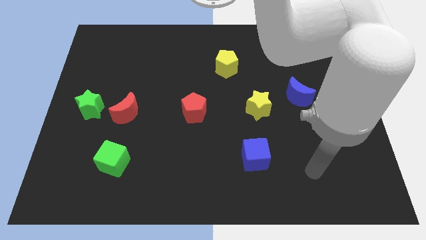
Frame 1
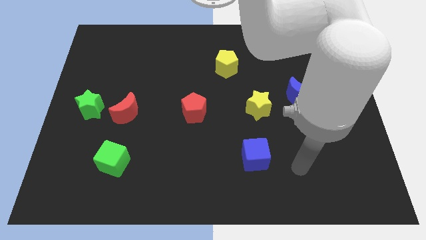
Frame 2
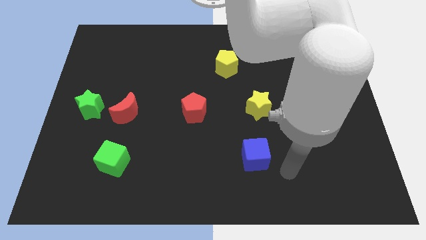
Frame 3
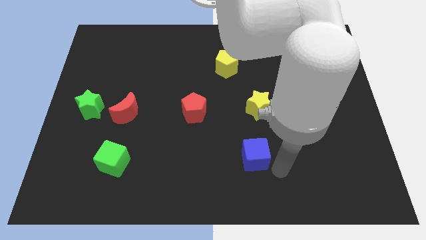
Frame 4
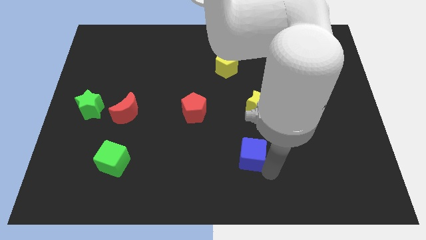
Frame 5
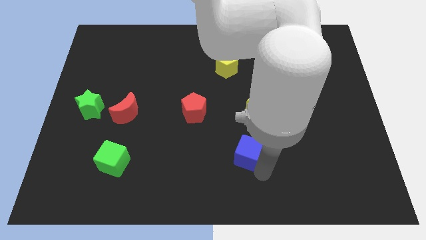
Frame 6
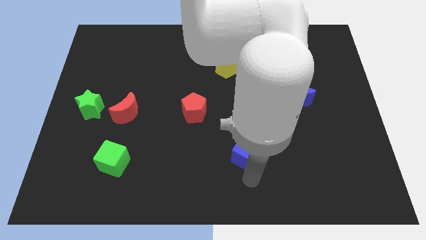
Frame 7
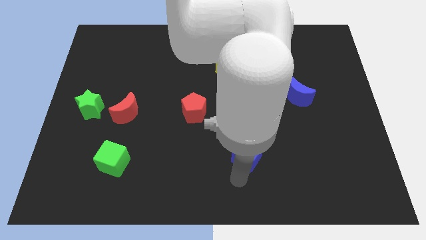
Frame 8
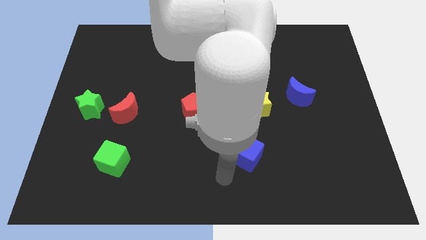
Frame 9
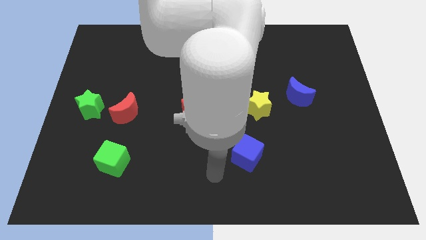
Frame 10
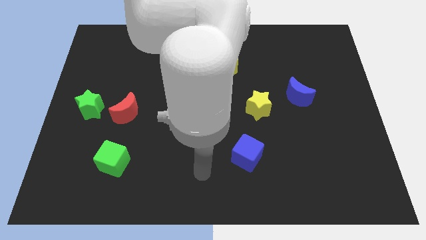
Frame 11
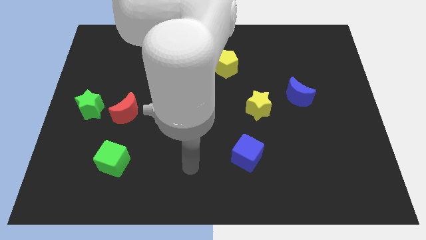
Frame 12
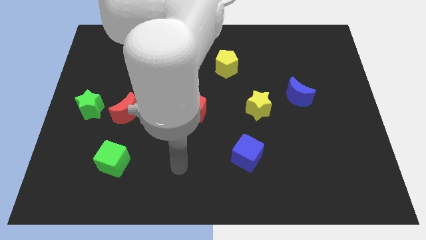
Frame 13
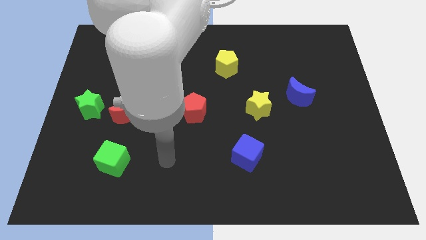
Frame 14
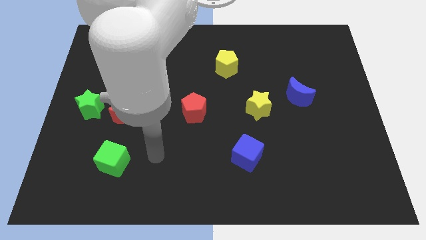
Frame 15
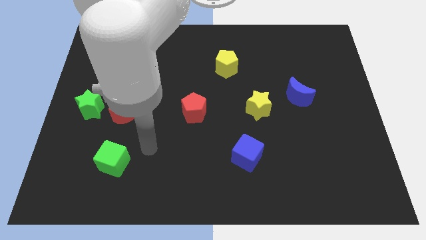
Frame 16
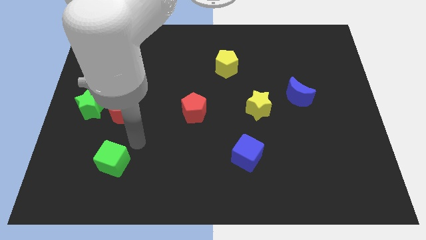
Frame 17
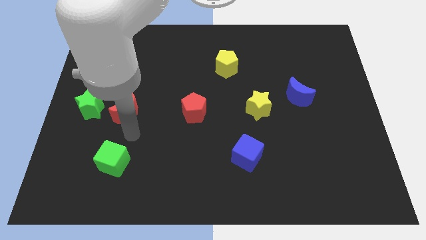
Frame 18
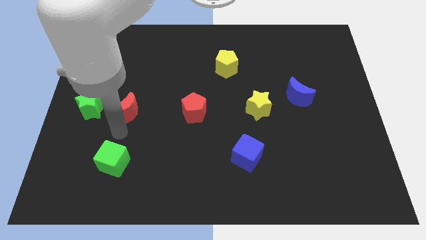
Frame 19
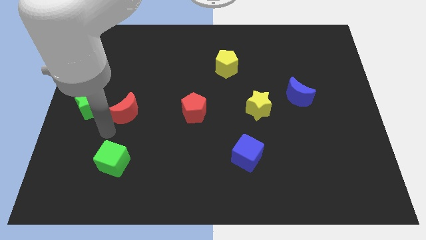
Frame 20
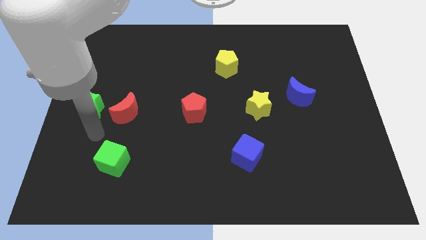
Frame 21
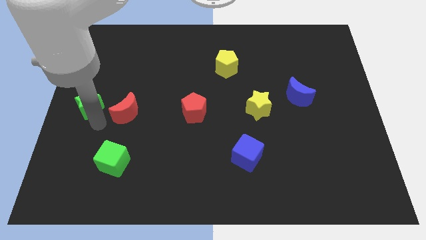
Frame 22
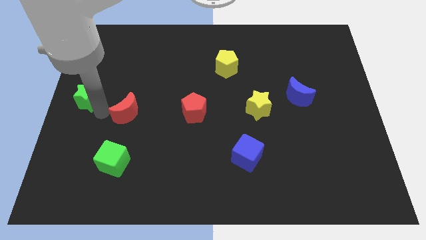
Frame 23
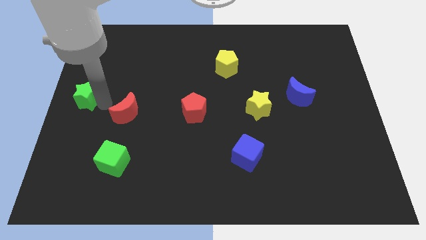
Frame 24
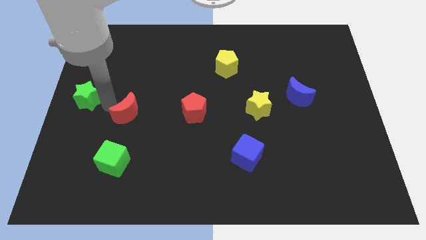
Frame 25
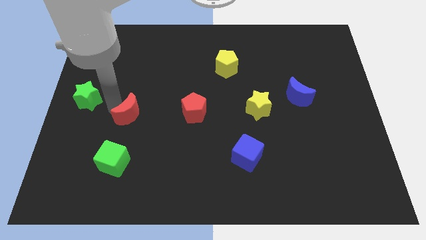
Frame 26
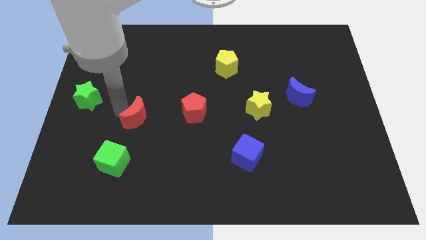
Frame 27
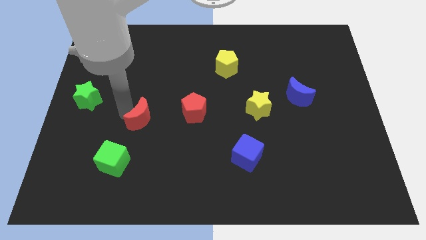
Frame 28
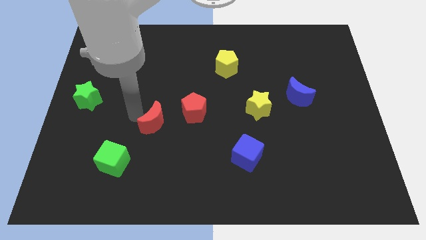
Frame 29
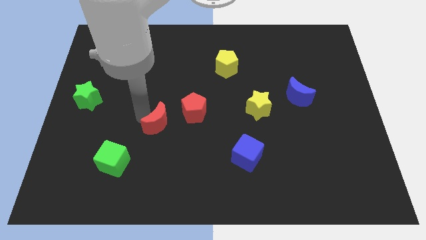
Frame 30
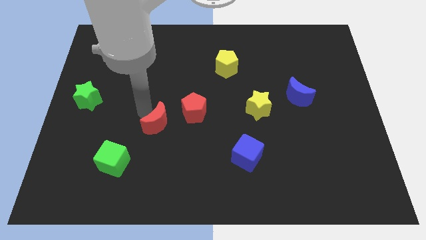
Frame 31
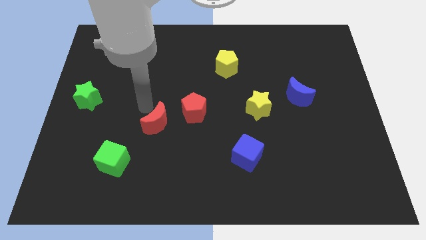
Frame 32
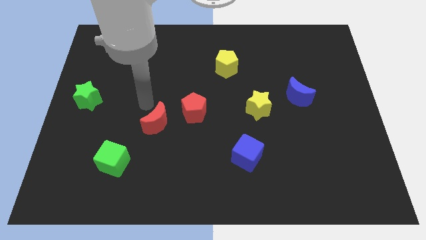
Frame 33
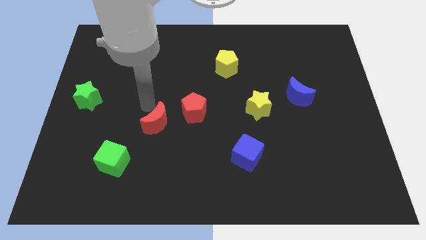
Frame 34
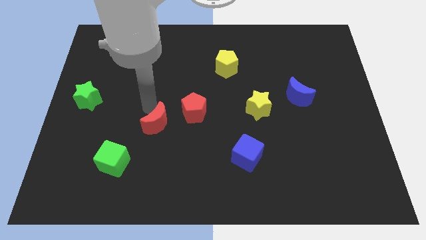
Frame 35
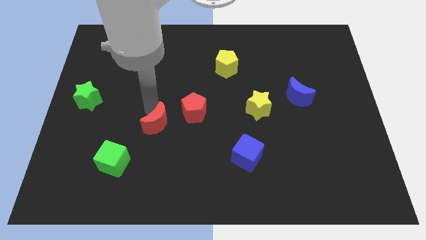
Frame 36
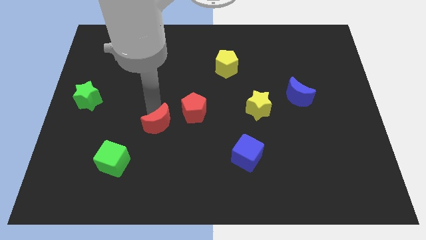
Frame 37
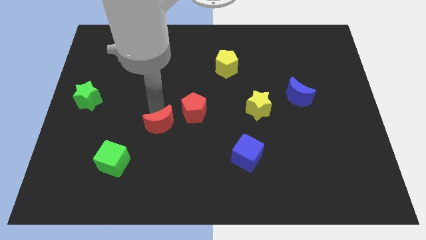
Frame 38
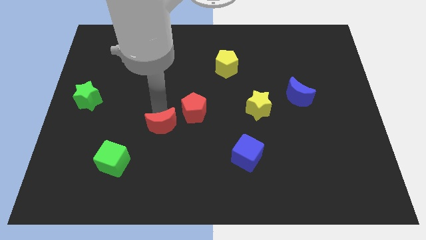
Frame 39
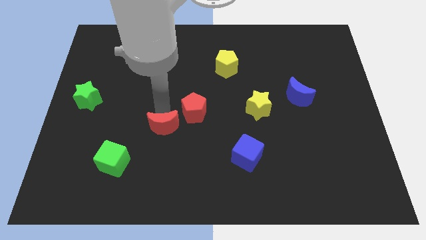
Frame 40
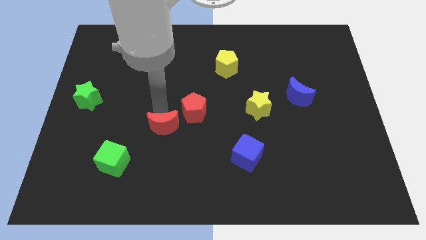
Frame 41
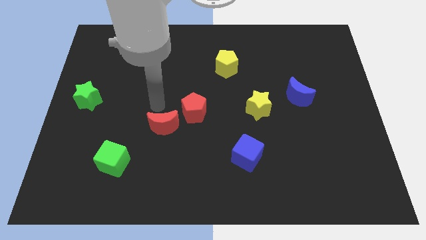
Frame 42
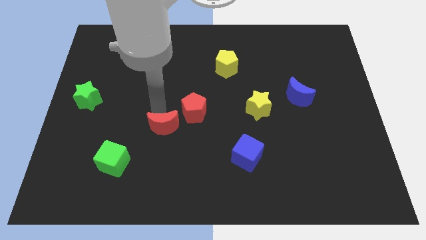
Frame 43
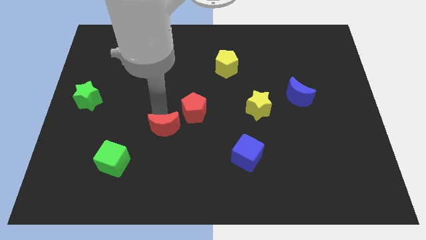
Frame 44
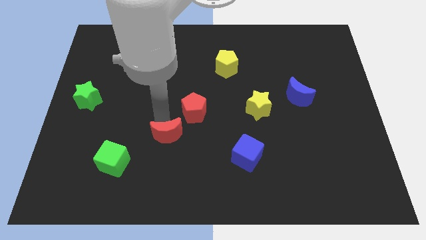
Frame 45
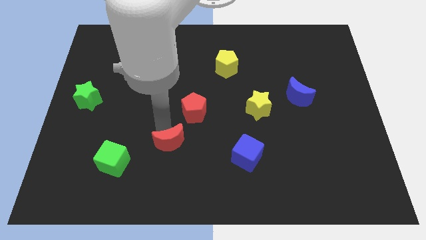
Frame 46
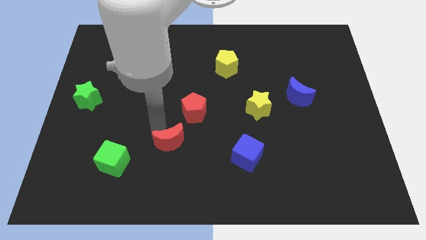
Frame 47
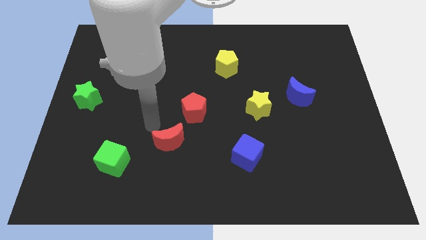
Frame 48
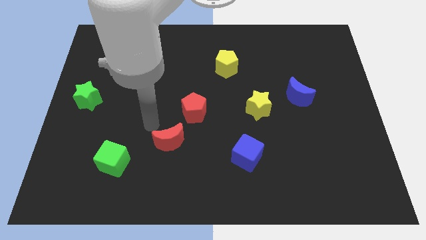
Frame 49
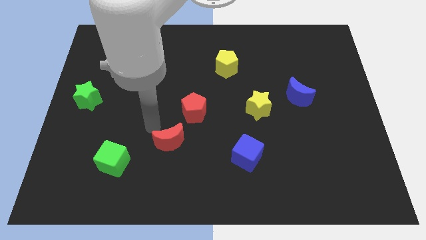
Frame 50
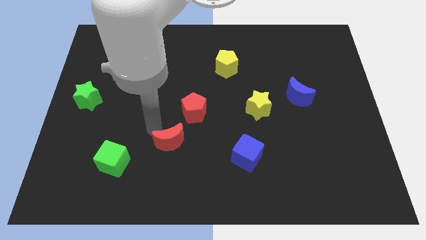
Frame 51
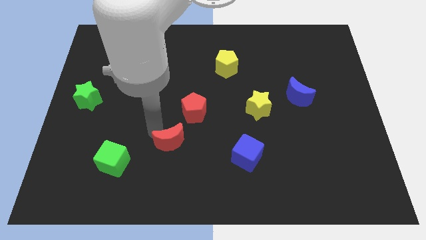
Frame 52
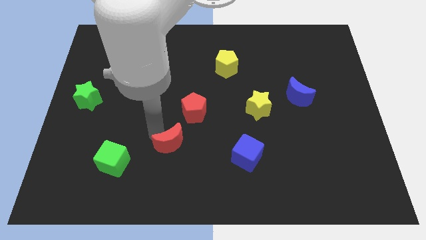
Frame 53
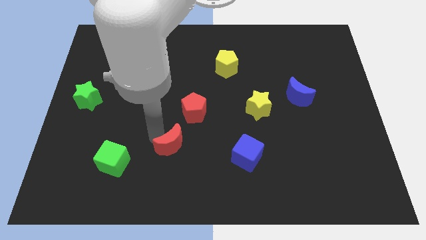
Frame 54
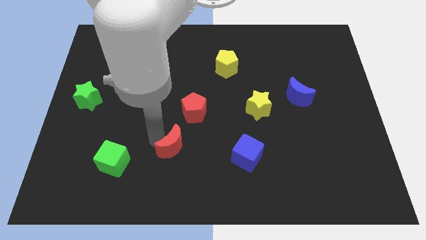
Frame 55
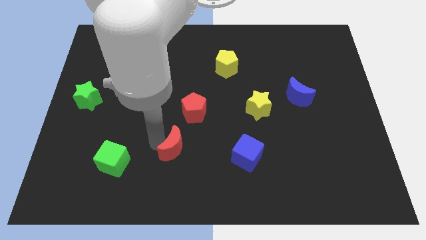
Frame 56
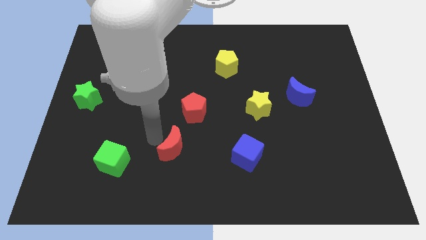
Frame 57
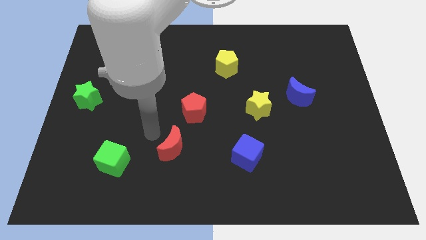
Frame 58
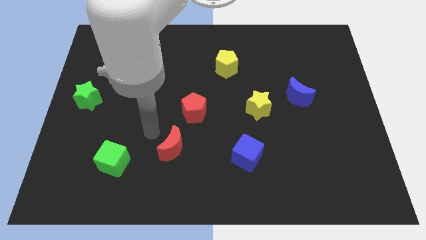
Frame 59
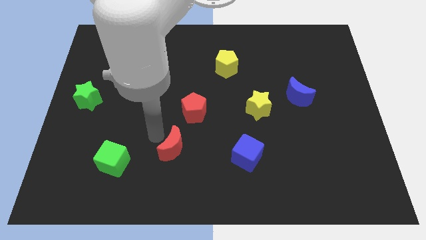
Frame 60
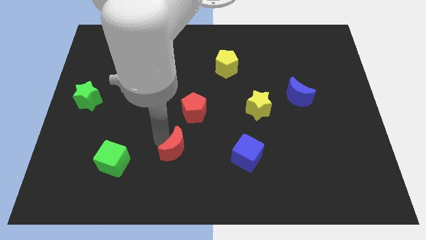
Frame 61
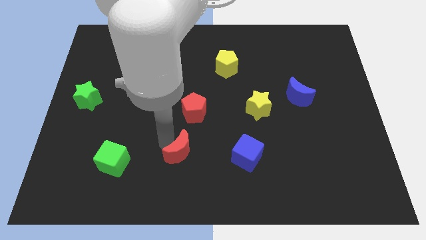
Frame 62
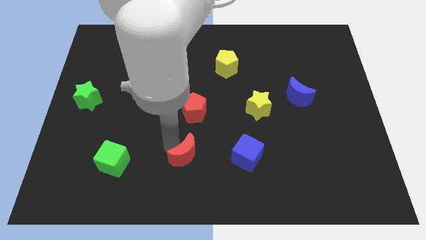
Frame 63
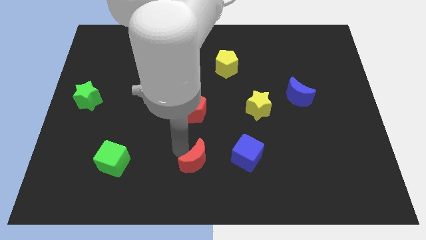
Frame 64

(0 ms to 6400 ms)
put the red moon to the bottom side

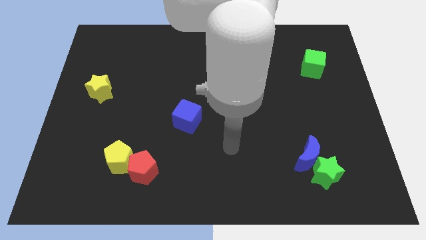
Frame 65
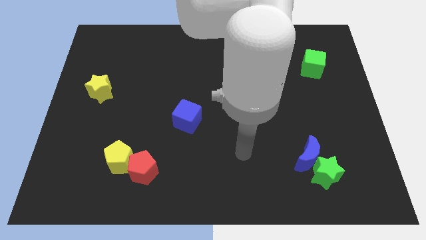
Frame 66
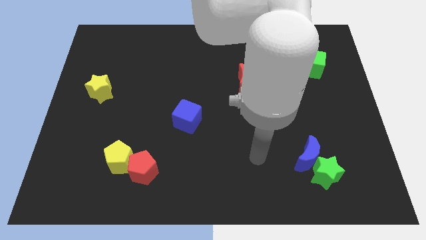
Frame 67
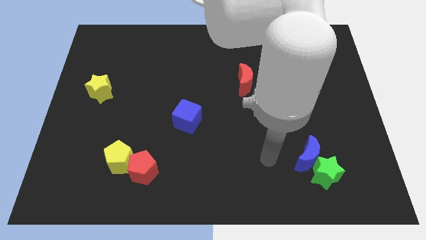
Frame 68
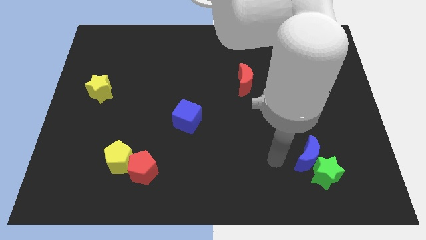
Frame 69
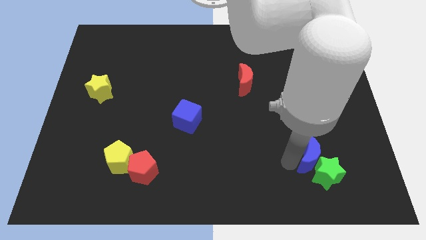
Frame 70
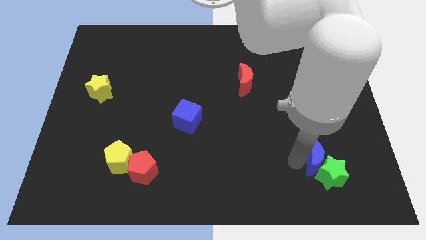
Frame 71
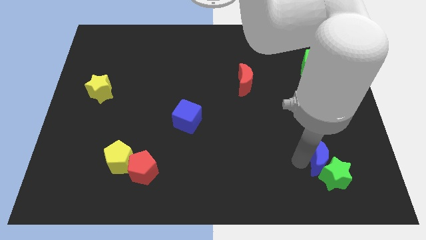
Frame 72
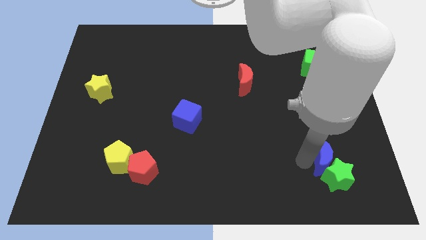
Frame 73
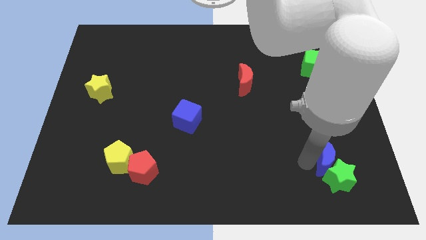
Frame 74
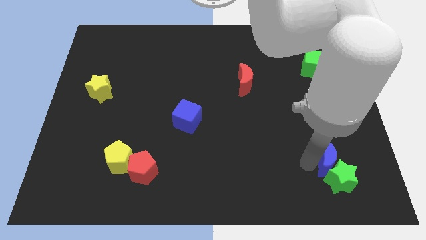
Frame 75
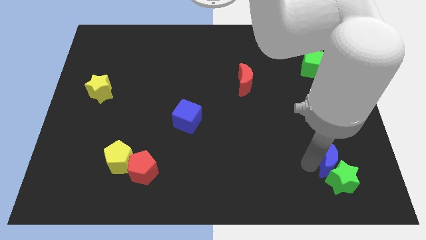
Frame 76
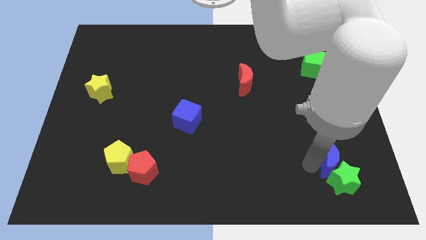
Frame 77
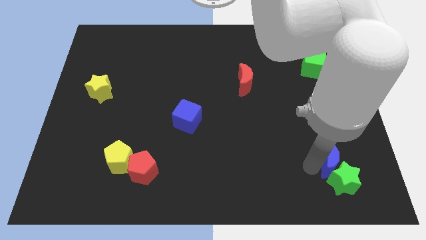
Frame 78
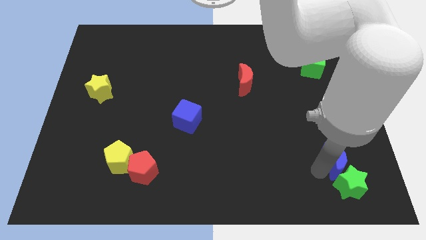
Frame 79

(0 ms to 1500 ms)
push the green star to the bottom right of the board
